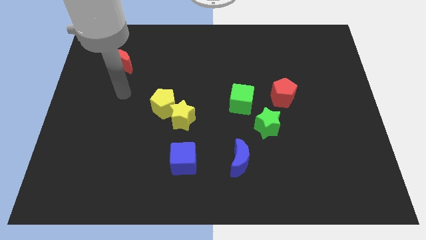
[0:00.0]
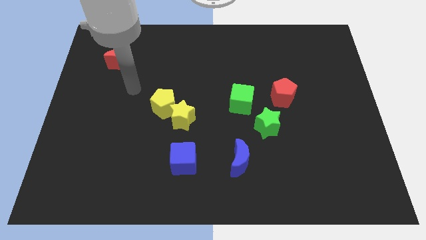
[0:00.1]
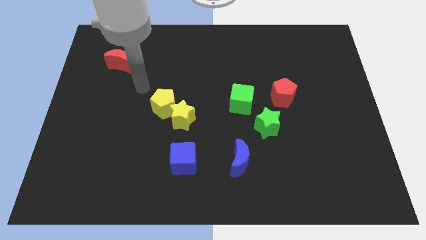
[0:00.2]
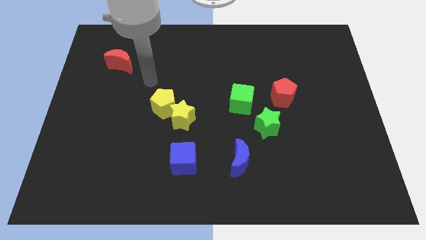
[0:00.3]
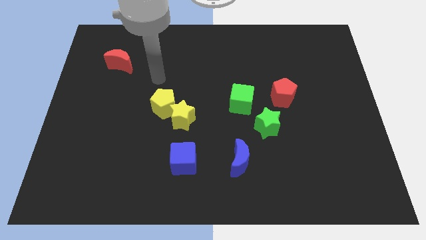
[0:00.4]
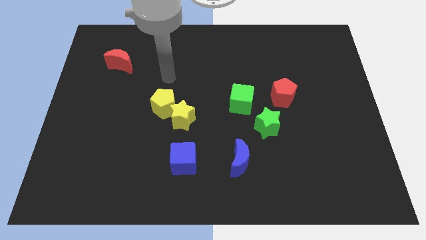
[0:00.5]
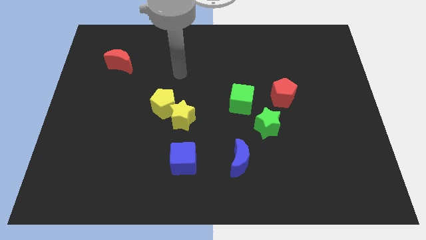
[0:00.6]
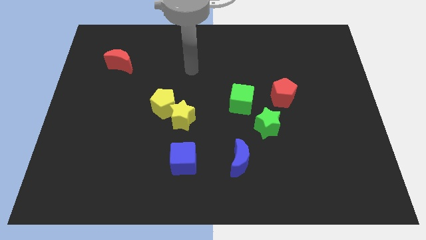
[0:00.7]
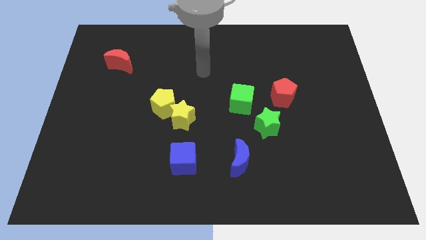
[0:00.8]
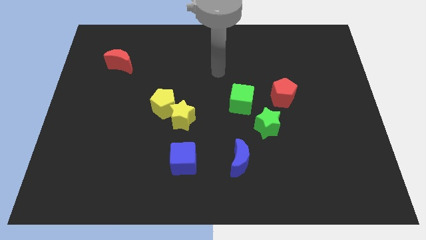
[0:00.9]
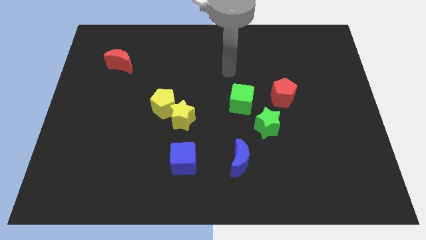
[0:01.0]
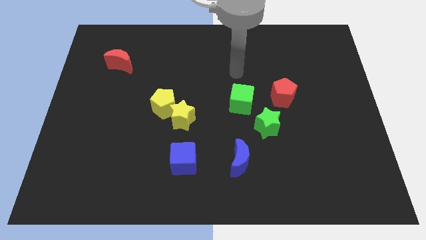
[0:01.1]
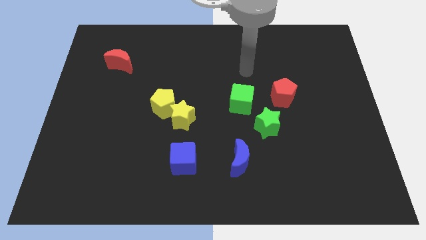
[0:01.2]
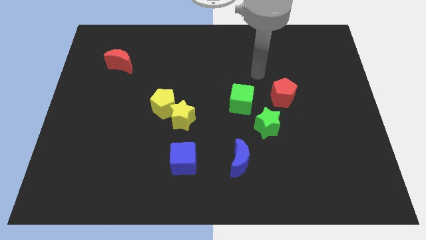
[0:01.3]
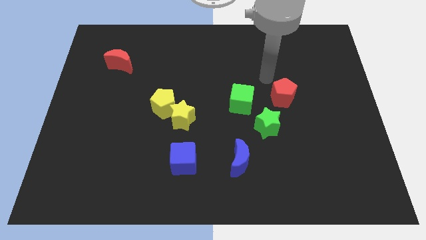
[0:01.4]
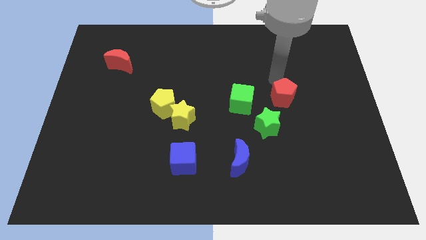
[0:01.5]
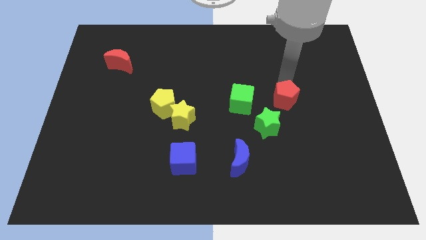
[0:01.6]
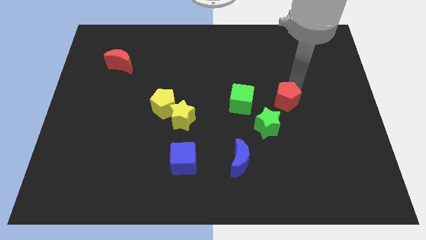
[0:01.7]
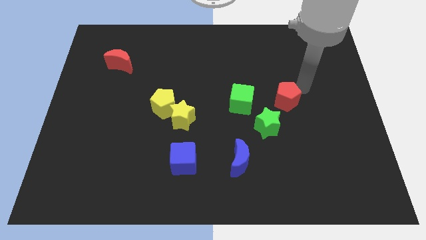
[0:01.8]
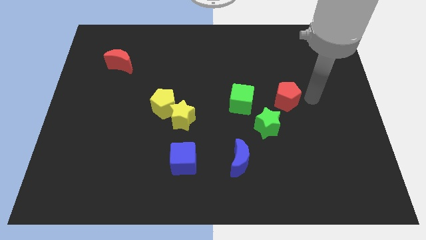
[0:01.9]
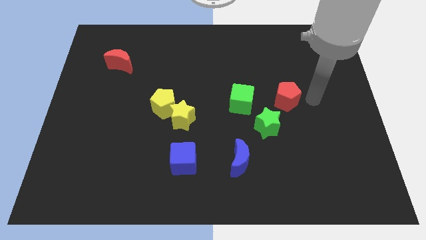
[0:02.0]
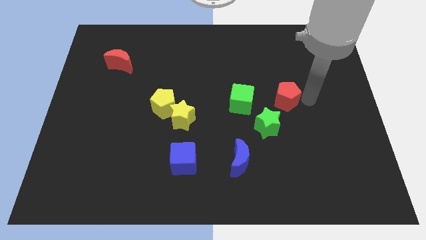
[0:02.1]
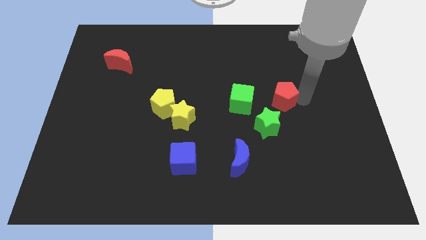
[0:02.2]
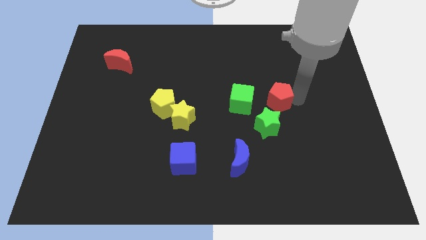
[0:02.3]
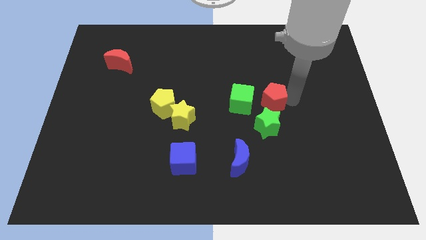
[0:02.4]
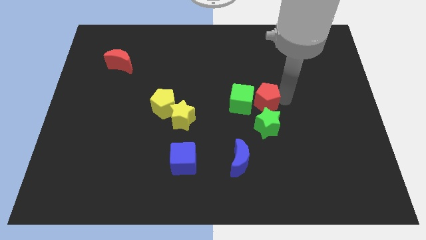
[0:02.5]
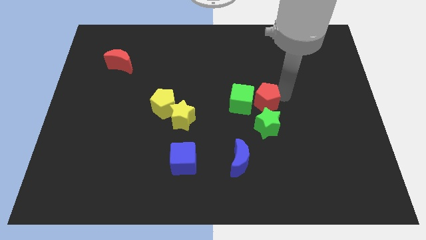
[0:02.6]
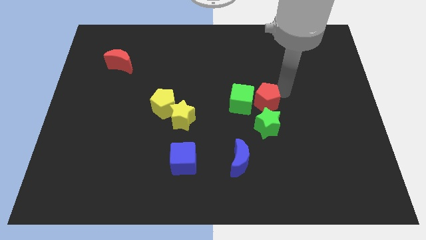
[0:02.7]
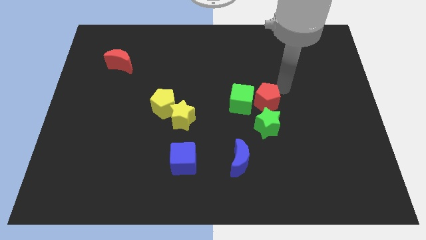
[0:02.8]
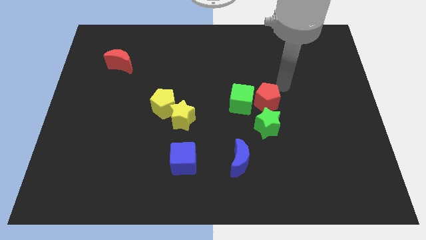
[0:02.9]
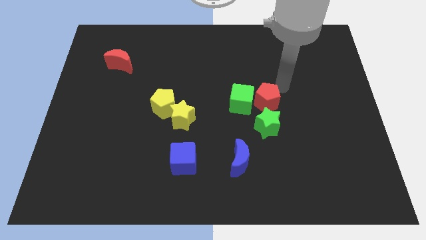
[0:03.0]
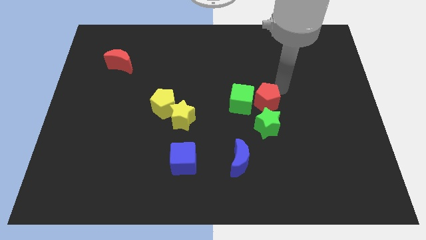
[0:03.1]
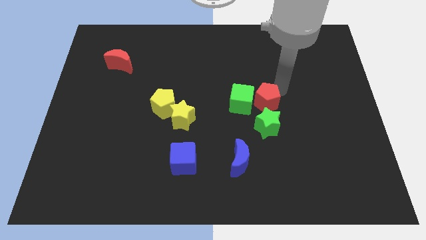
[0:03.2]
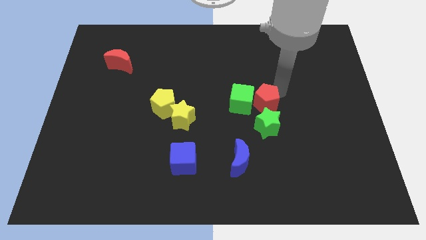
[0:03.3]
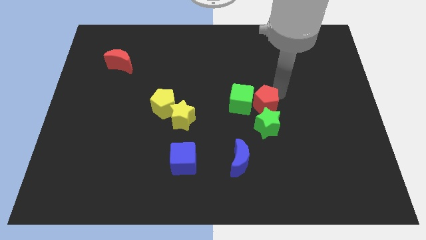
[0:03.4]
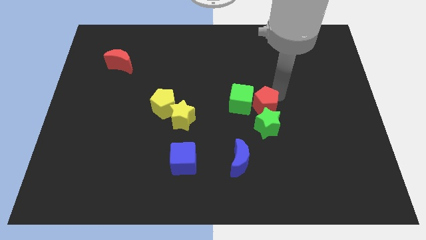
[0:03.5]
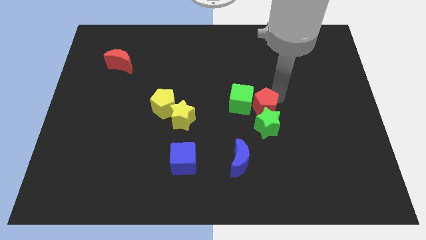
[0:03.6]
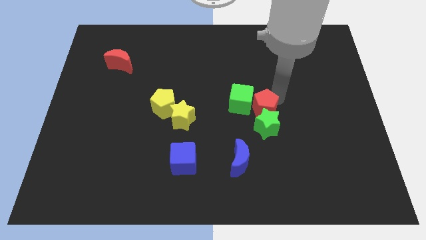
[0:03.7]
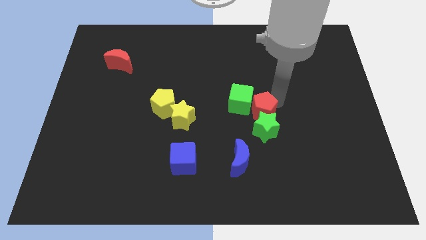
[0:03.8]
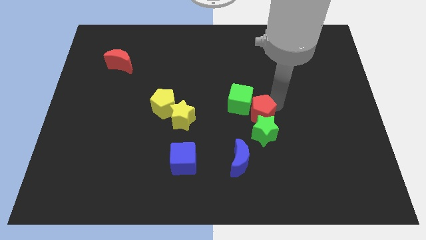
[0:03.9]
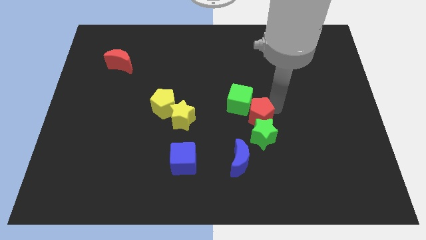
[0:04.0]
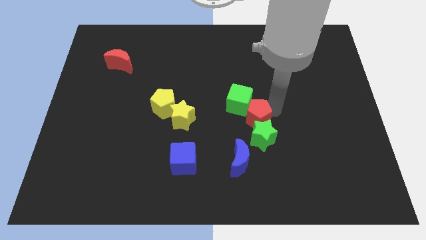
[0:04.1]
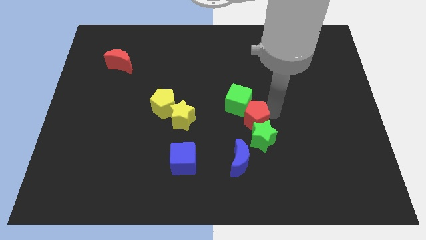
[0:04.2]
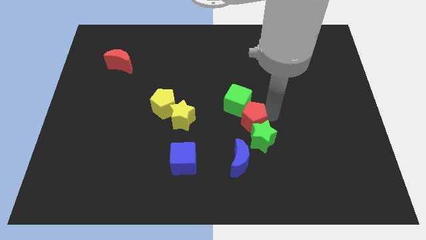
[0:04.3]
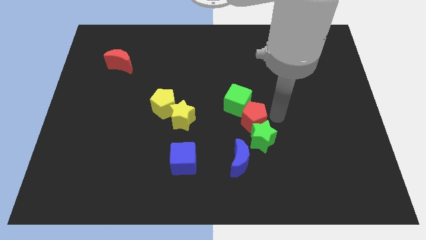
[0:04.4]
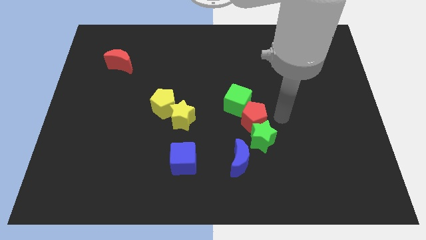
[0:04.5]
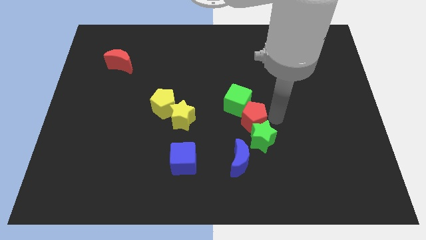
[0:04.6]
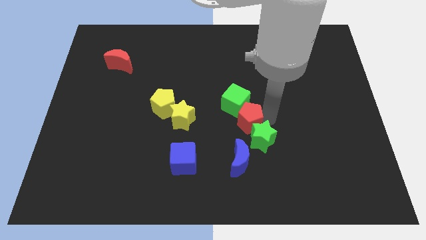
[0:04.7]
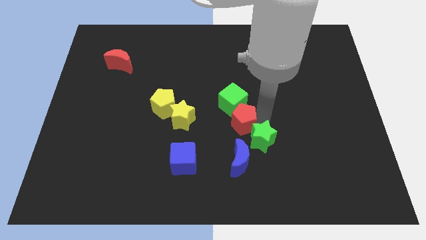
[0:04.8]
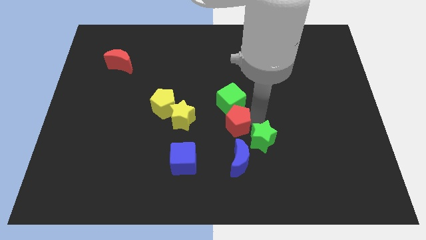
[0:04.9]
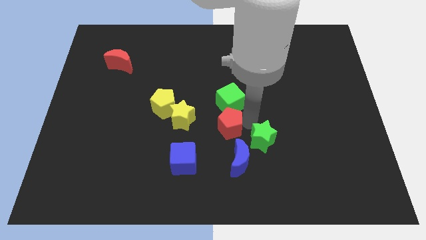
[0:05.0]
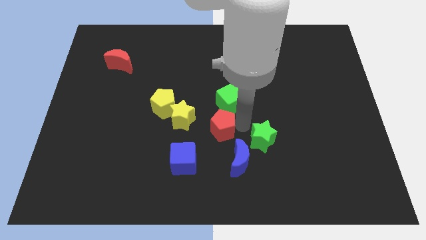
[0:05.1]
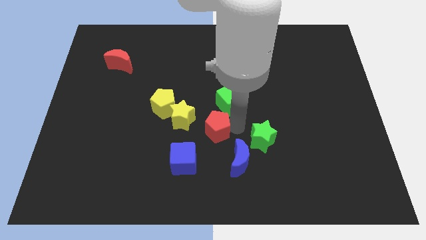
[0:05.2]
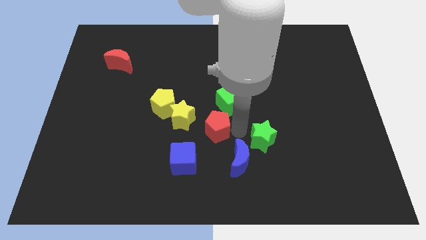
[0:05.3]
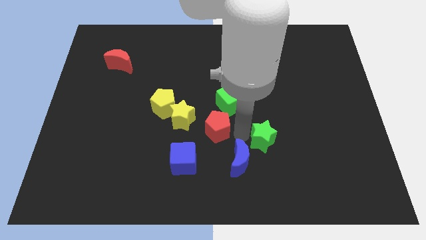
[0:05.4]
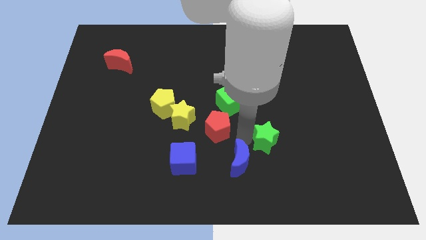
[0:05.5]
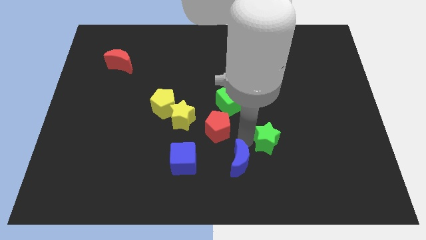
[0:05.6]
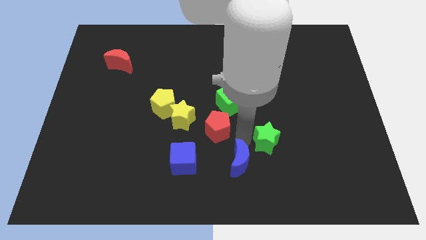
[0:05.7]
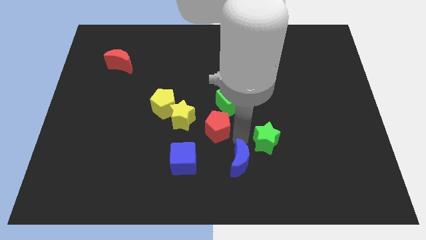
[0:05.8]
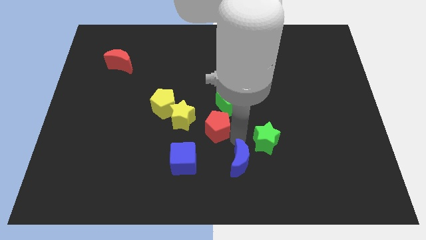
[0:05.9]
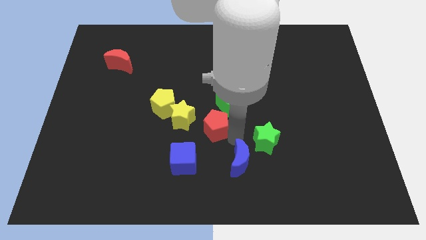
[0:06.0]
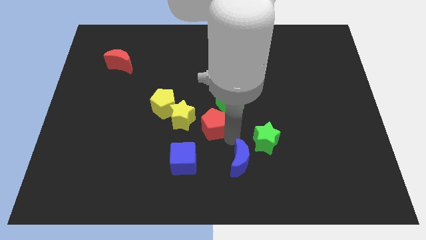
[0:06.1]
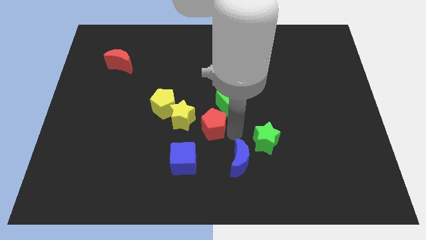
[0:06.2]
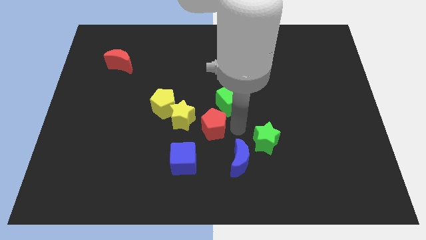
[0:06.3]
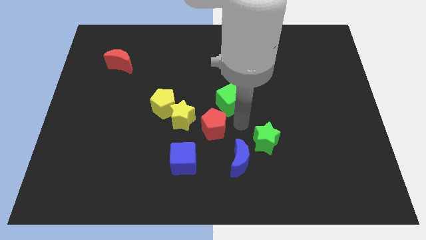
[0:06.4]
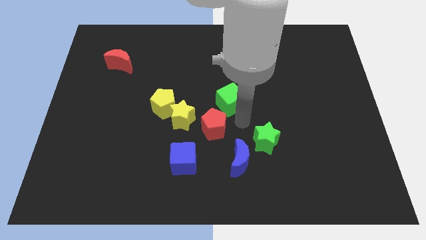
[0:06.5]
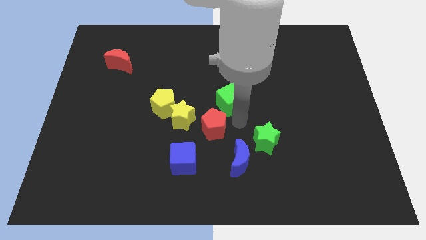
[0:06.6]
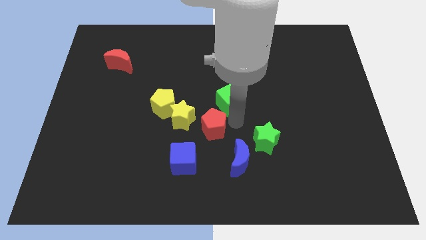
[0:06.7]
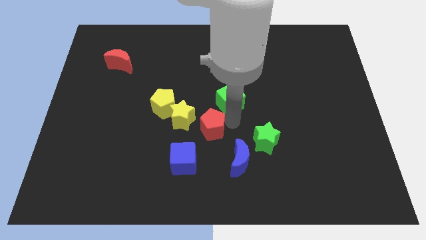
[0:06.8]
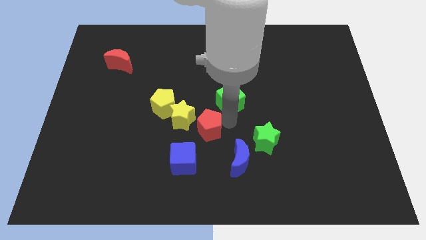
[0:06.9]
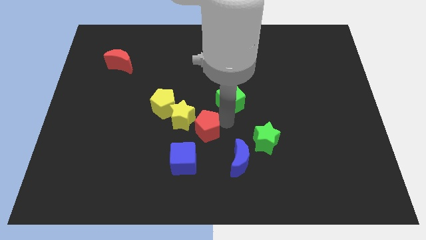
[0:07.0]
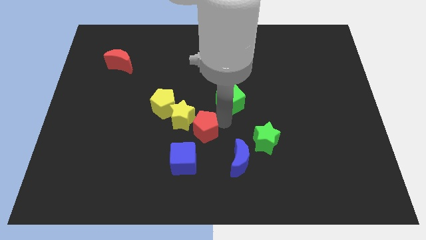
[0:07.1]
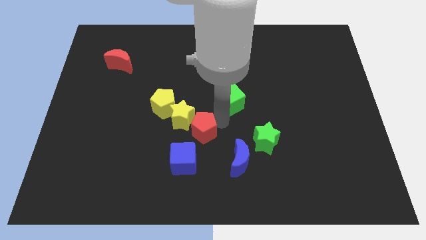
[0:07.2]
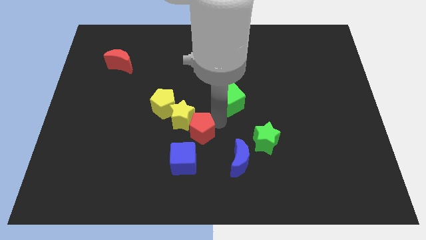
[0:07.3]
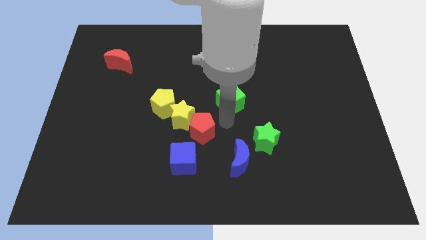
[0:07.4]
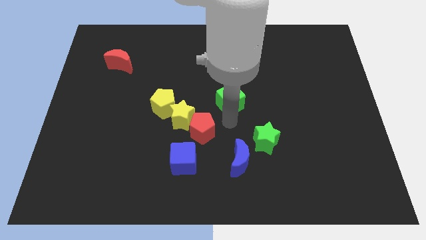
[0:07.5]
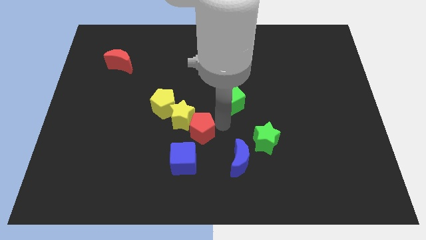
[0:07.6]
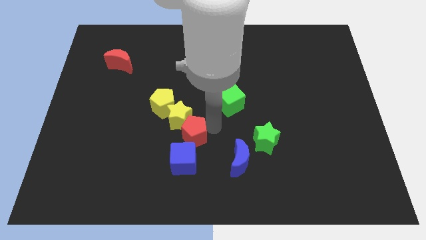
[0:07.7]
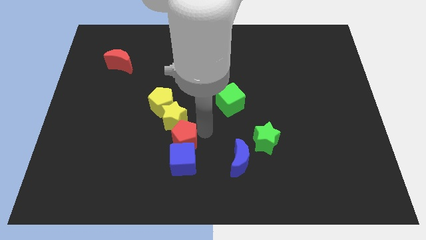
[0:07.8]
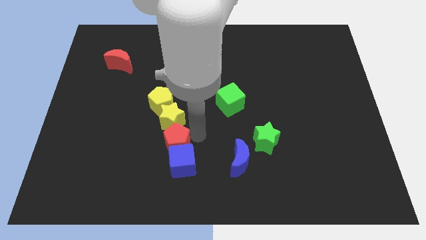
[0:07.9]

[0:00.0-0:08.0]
move the red pentagon to the bottom of the yellow pentagon
